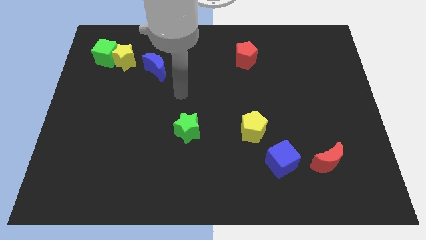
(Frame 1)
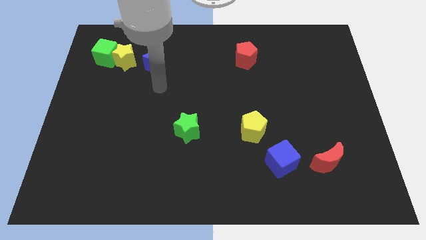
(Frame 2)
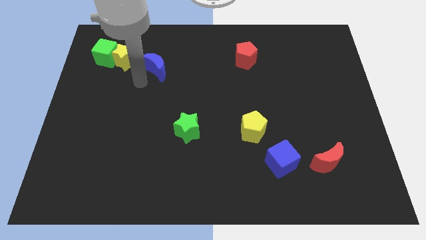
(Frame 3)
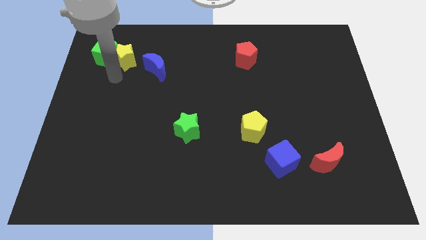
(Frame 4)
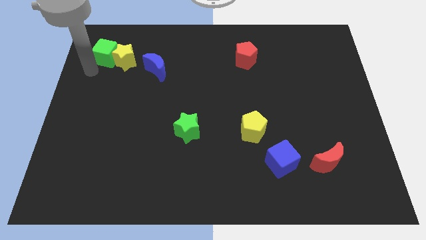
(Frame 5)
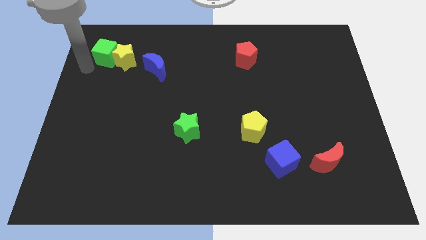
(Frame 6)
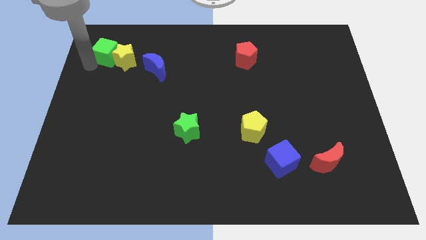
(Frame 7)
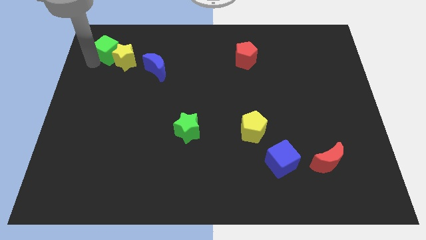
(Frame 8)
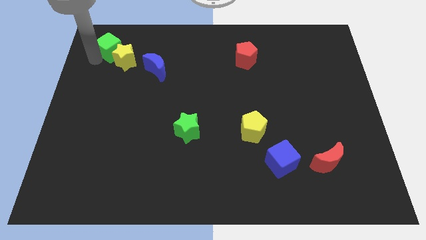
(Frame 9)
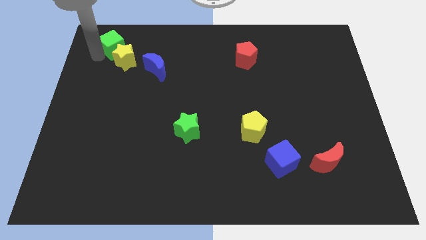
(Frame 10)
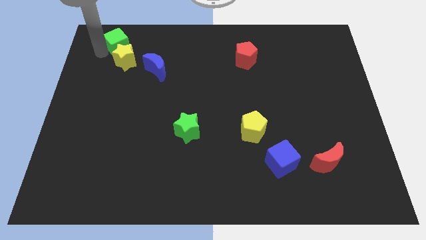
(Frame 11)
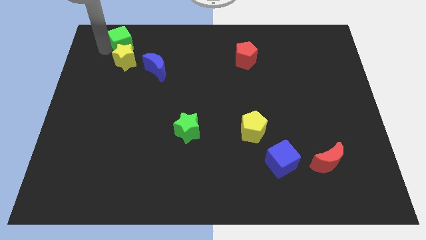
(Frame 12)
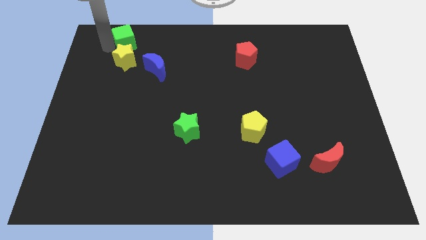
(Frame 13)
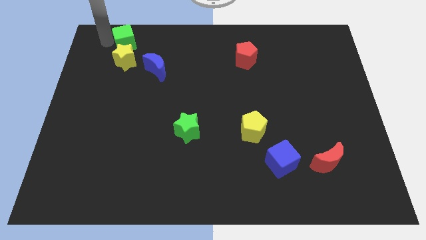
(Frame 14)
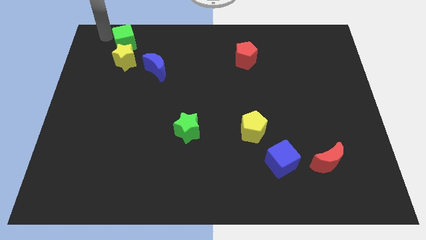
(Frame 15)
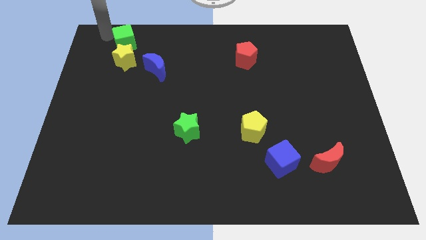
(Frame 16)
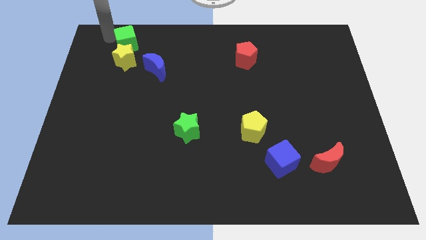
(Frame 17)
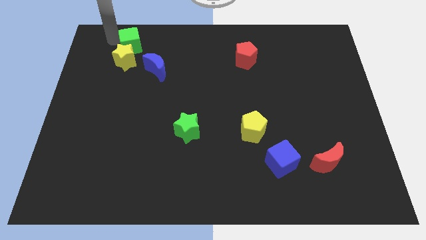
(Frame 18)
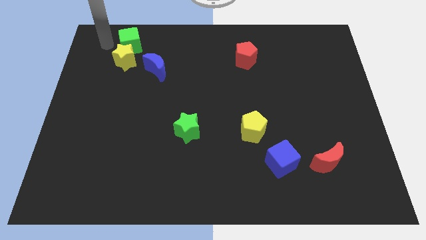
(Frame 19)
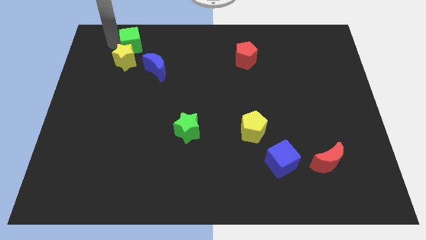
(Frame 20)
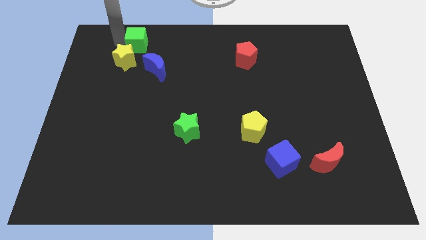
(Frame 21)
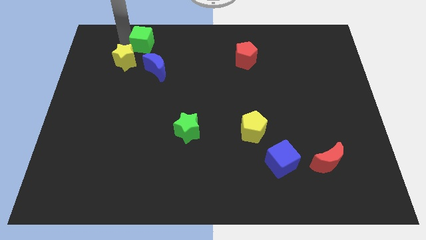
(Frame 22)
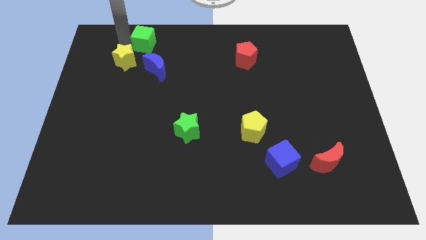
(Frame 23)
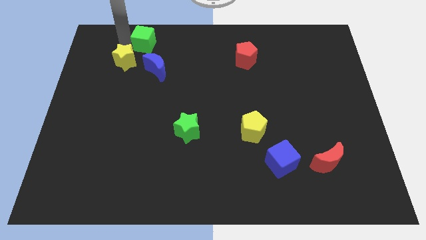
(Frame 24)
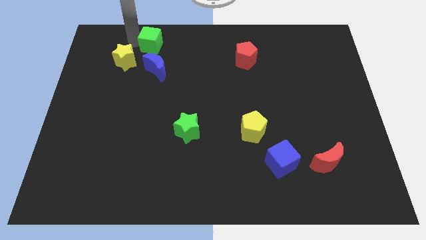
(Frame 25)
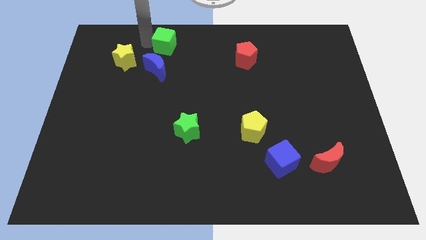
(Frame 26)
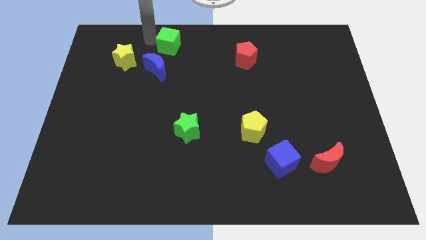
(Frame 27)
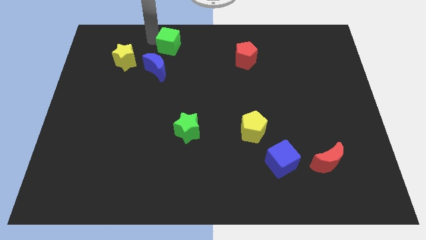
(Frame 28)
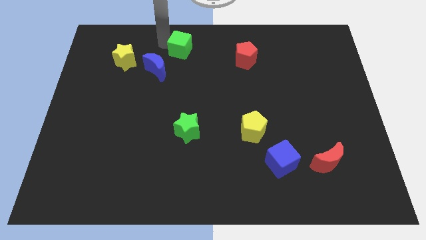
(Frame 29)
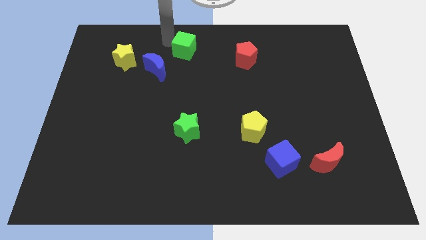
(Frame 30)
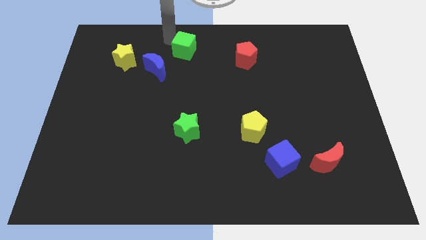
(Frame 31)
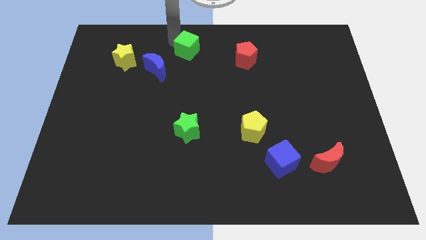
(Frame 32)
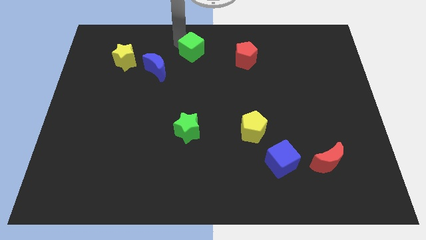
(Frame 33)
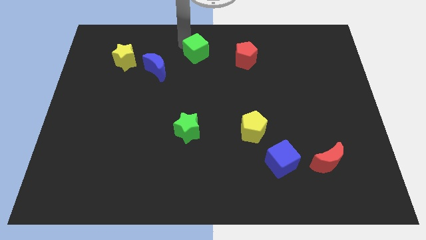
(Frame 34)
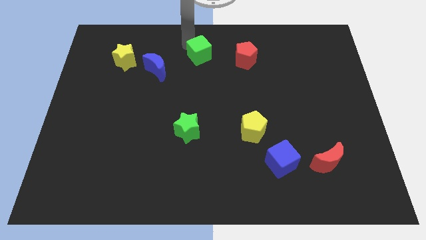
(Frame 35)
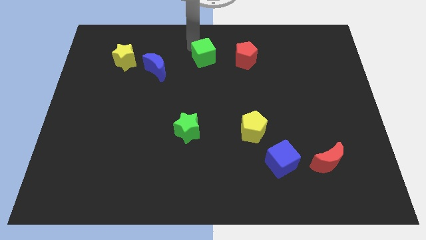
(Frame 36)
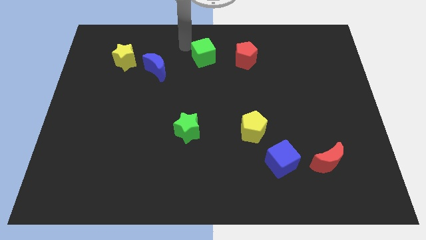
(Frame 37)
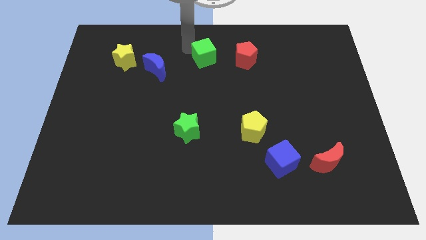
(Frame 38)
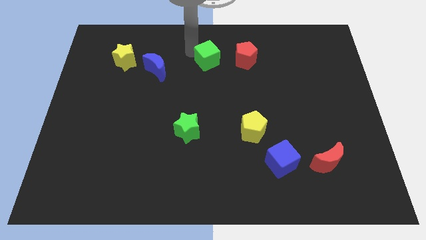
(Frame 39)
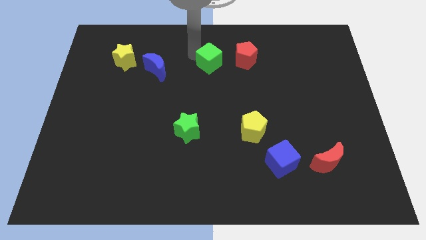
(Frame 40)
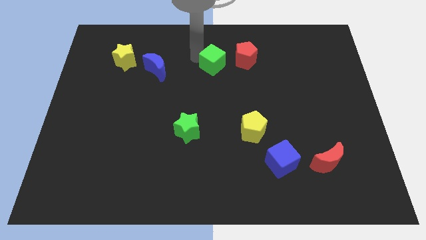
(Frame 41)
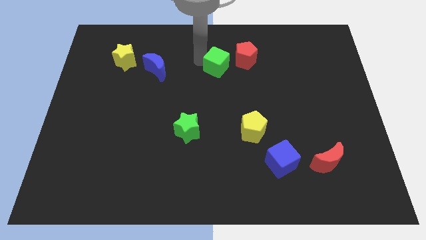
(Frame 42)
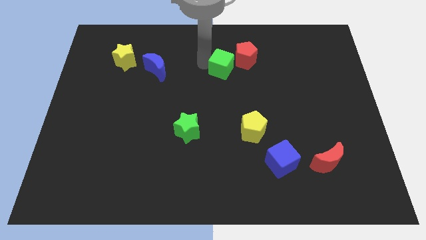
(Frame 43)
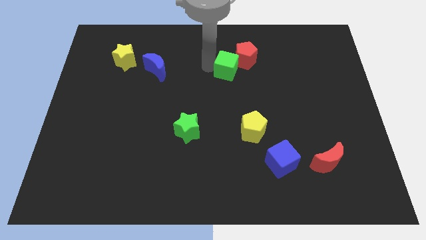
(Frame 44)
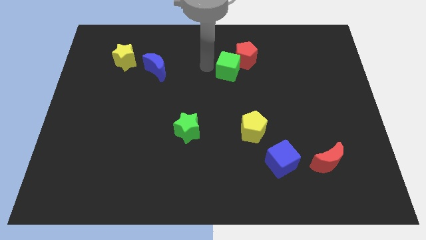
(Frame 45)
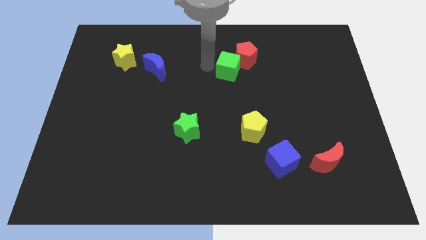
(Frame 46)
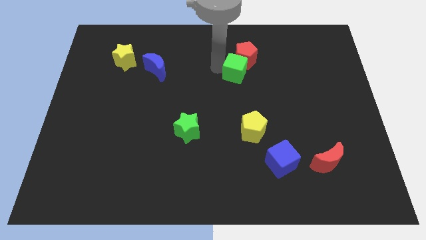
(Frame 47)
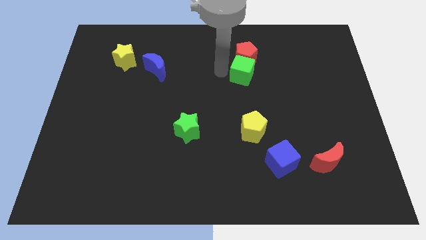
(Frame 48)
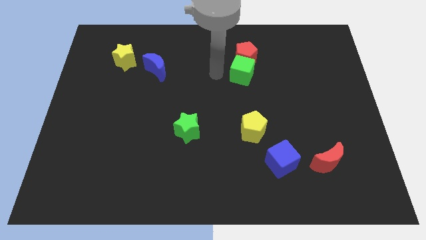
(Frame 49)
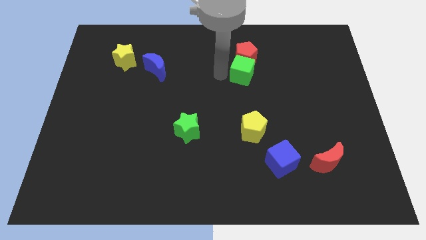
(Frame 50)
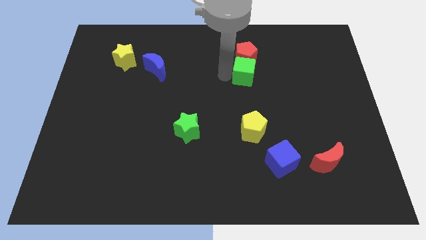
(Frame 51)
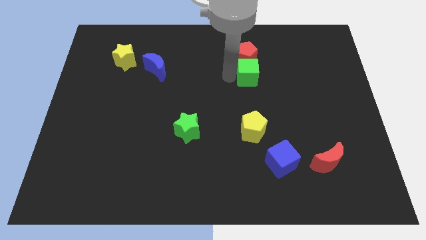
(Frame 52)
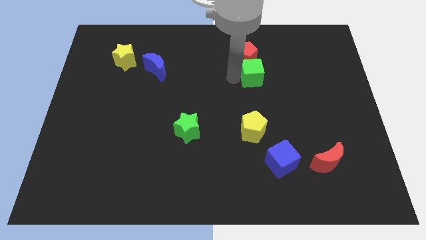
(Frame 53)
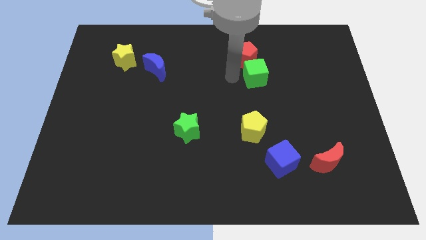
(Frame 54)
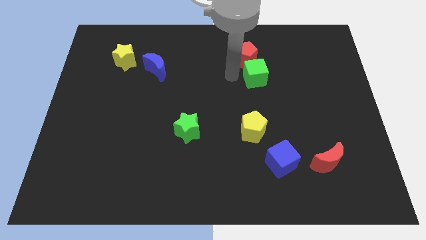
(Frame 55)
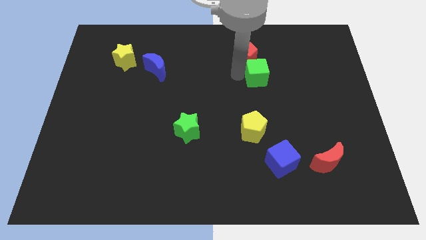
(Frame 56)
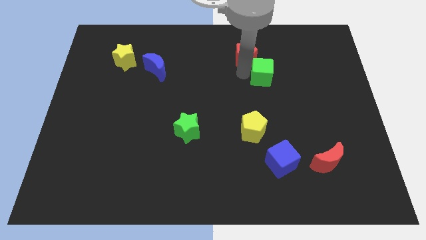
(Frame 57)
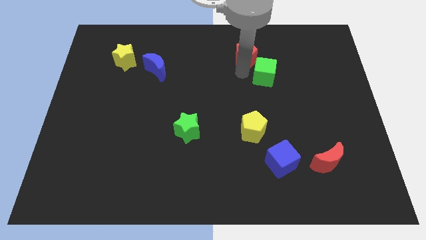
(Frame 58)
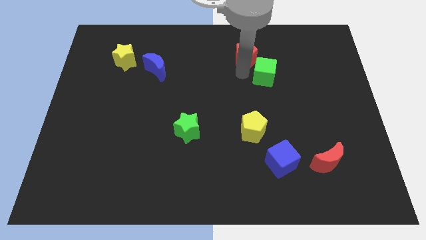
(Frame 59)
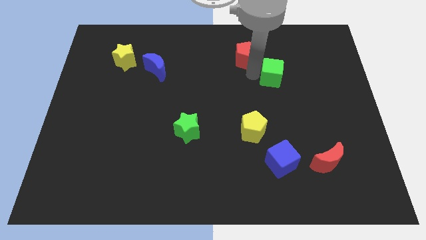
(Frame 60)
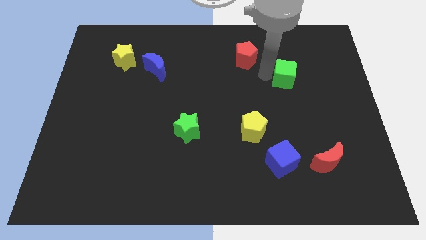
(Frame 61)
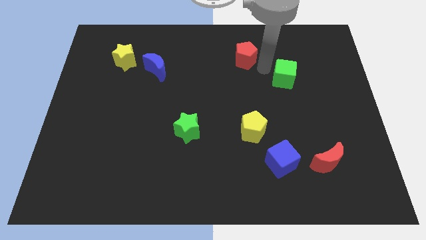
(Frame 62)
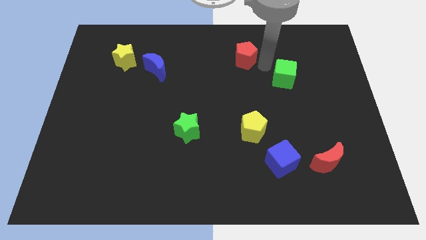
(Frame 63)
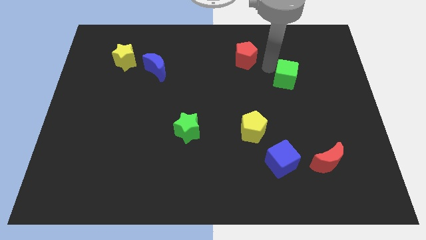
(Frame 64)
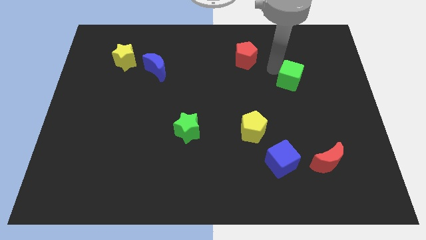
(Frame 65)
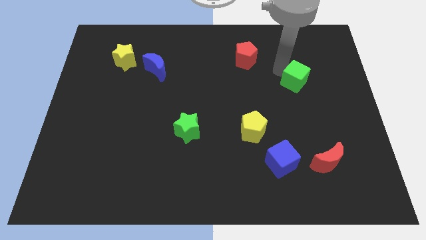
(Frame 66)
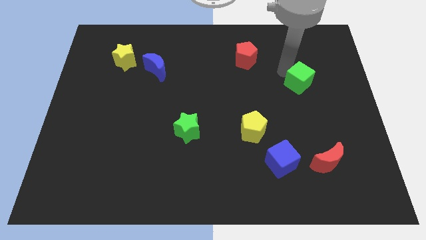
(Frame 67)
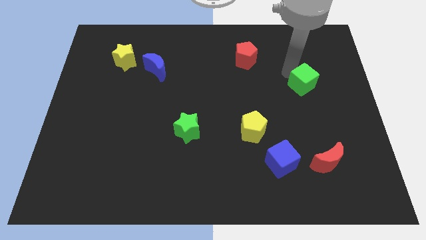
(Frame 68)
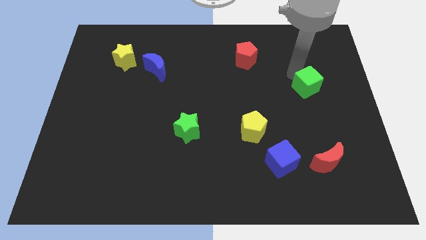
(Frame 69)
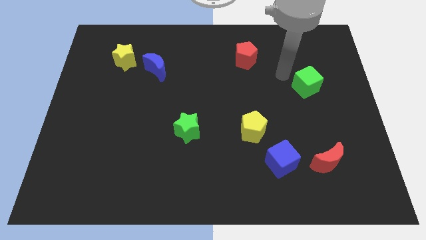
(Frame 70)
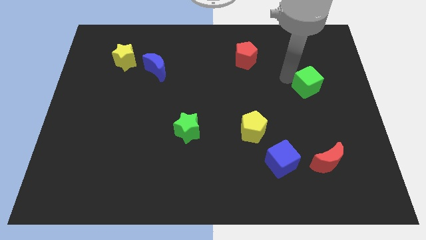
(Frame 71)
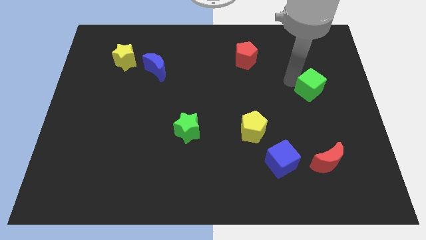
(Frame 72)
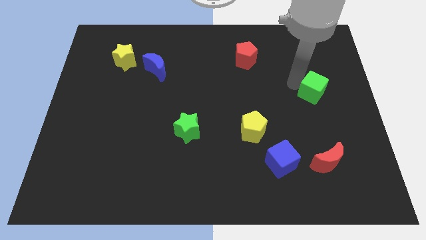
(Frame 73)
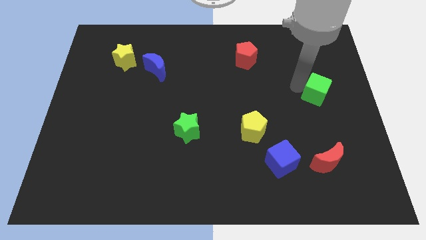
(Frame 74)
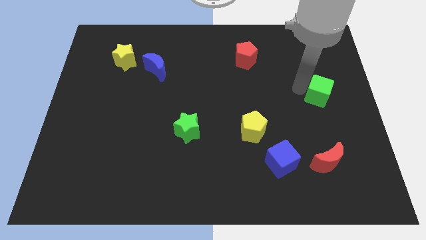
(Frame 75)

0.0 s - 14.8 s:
push the green cube to the right side

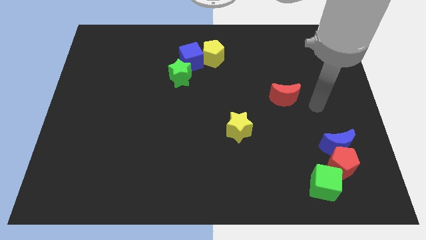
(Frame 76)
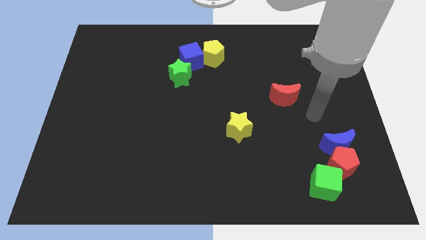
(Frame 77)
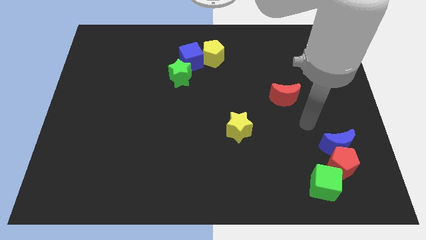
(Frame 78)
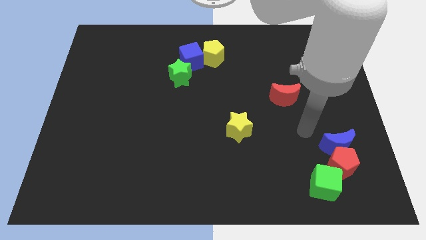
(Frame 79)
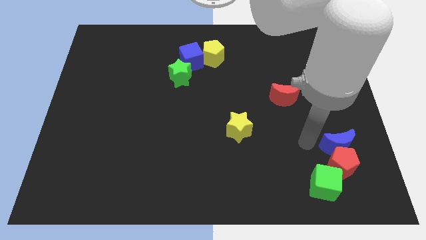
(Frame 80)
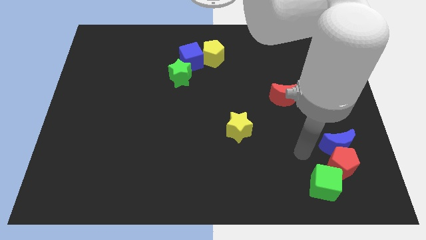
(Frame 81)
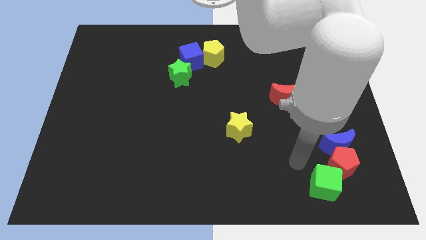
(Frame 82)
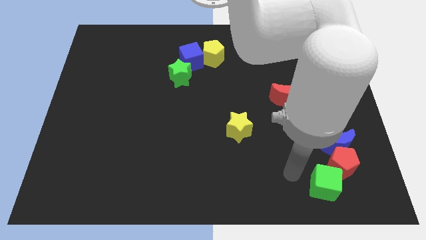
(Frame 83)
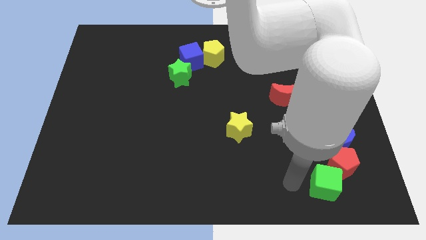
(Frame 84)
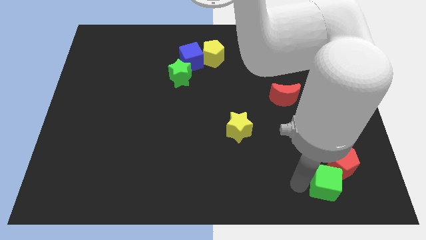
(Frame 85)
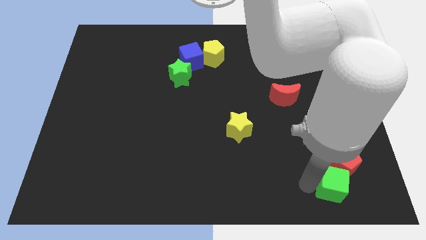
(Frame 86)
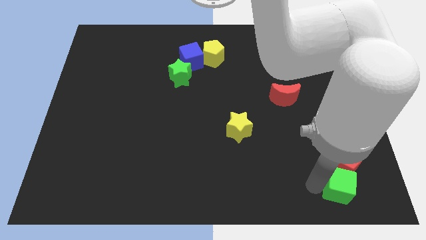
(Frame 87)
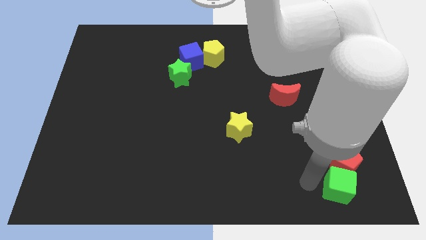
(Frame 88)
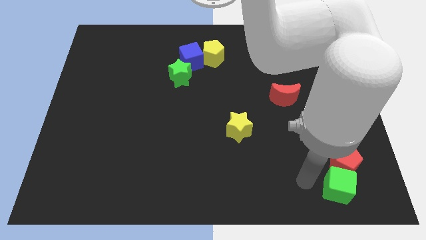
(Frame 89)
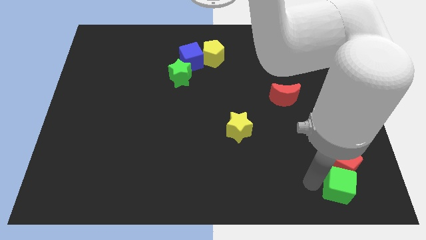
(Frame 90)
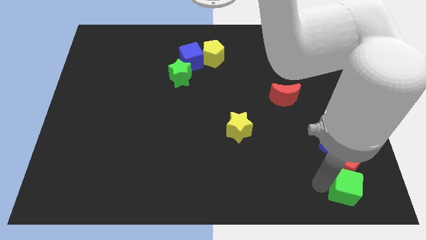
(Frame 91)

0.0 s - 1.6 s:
move the green cube to the bottom right of the board
